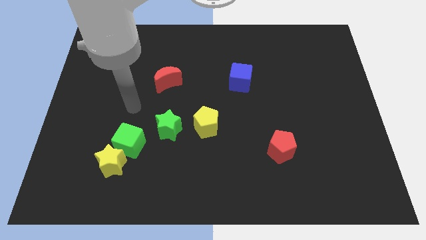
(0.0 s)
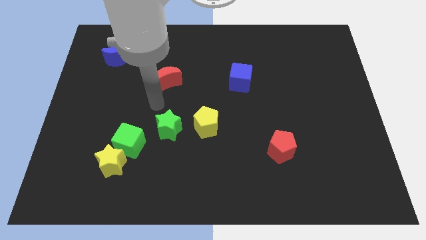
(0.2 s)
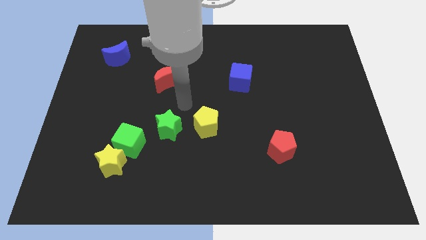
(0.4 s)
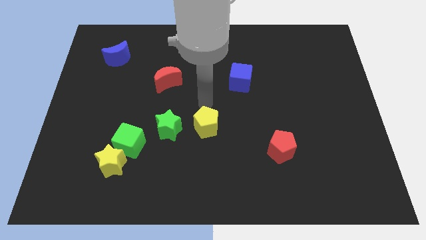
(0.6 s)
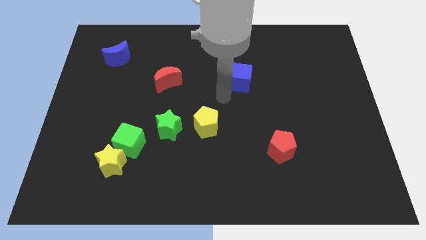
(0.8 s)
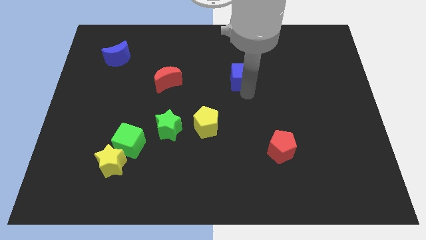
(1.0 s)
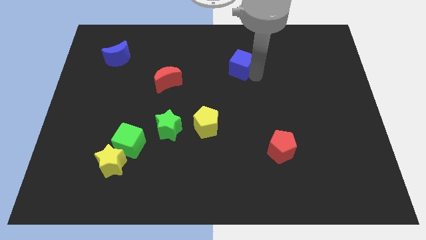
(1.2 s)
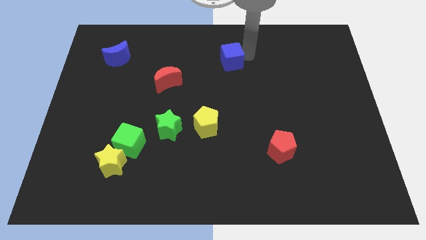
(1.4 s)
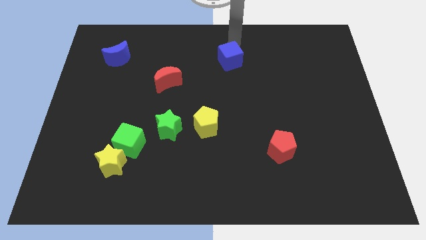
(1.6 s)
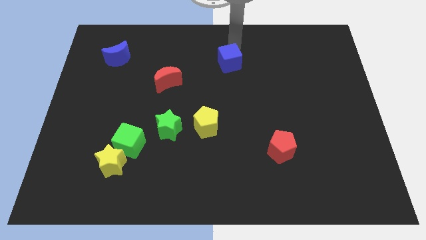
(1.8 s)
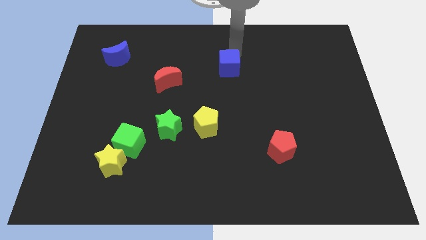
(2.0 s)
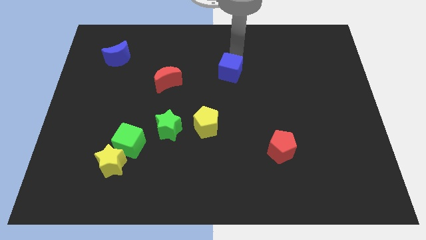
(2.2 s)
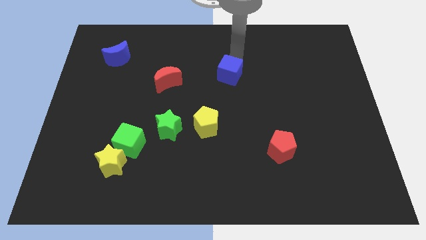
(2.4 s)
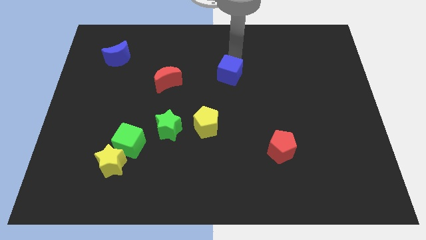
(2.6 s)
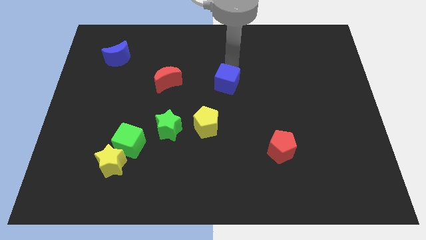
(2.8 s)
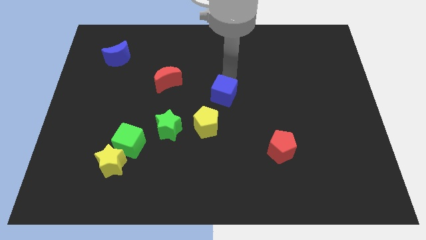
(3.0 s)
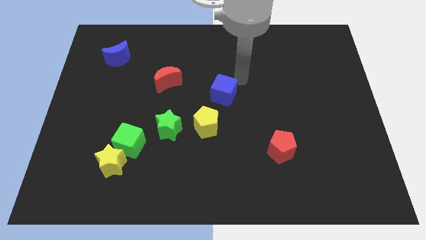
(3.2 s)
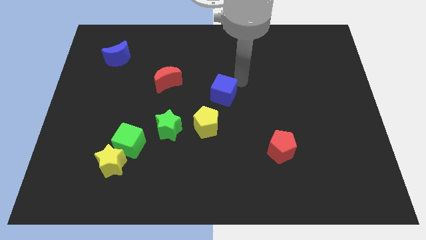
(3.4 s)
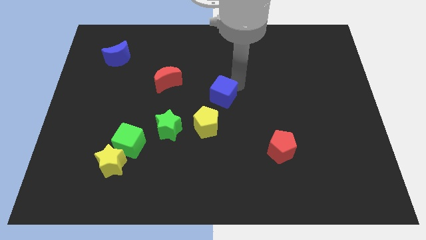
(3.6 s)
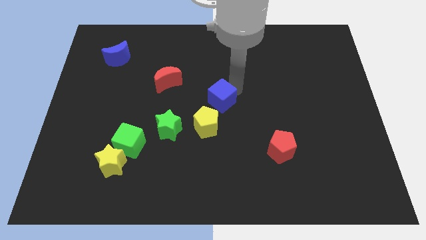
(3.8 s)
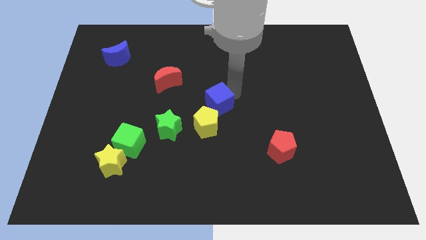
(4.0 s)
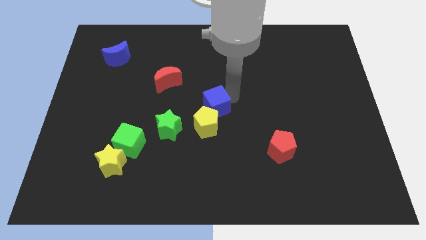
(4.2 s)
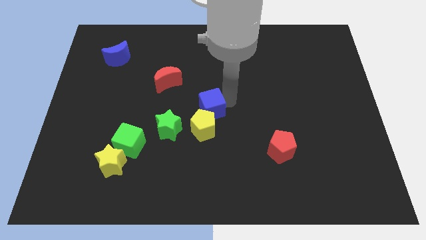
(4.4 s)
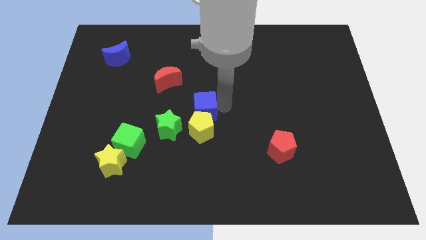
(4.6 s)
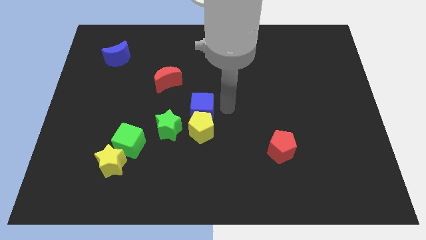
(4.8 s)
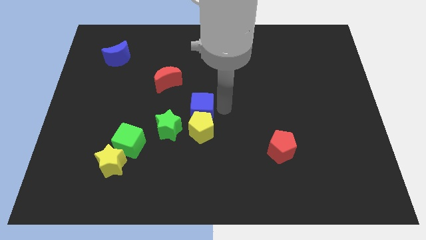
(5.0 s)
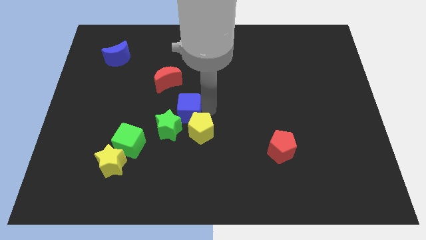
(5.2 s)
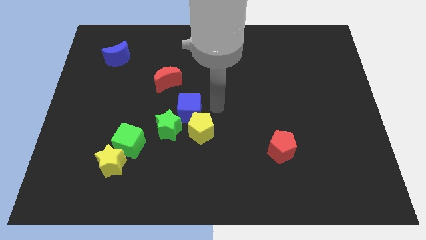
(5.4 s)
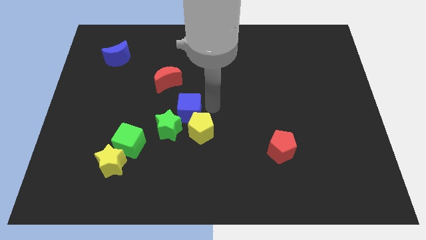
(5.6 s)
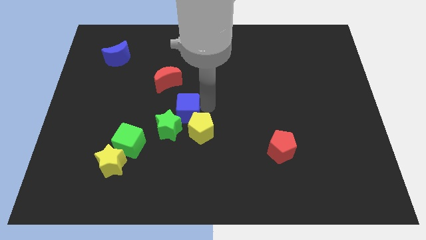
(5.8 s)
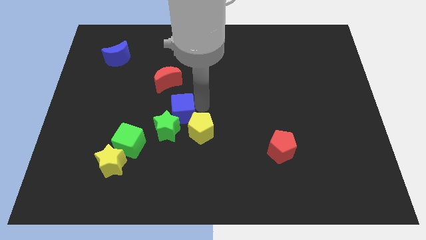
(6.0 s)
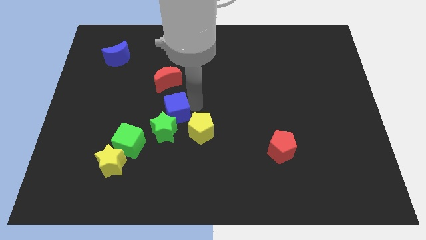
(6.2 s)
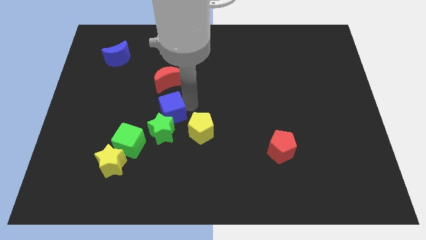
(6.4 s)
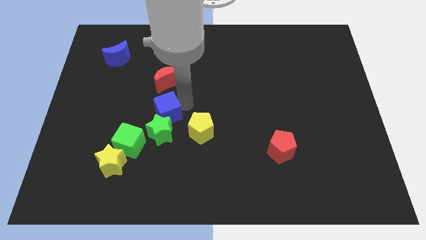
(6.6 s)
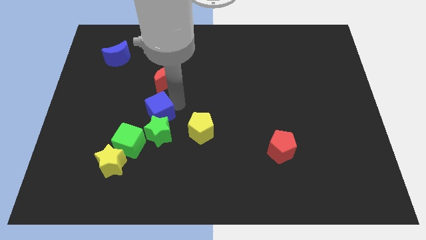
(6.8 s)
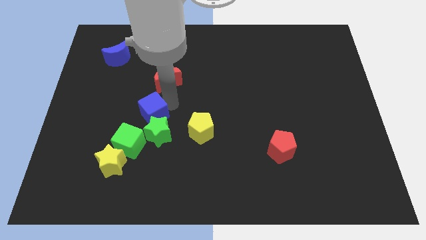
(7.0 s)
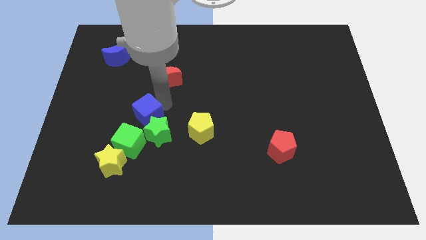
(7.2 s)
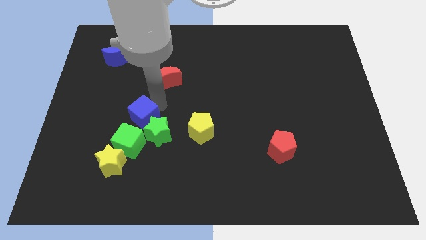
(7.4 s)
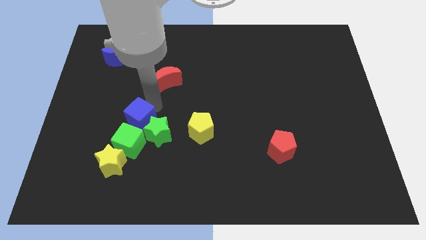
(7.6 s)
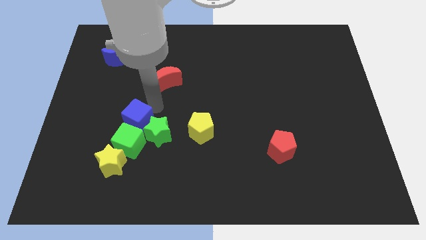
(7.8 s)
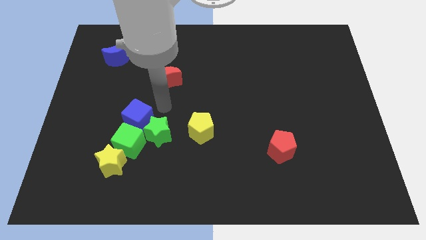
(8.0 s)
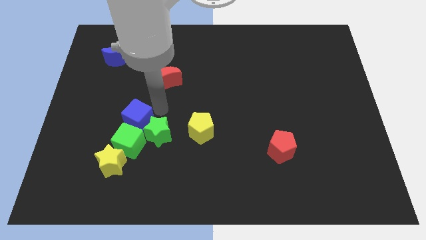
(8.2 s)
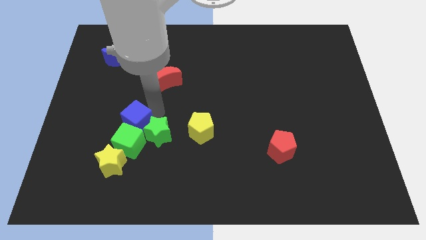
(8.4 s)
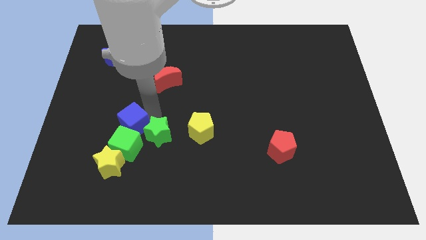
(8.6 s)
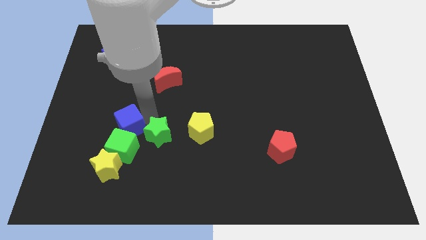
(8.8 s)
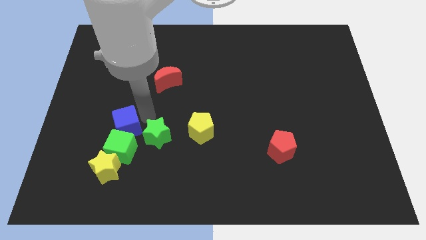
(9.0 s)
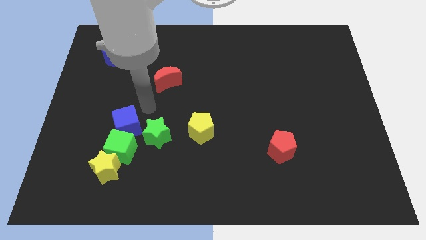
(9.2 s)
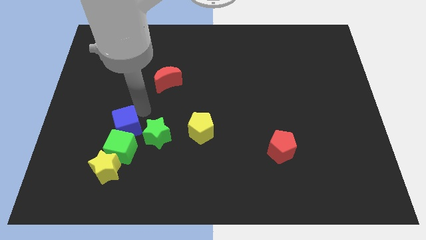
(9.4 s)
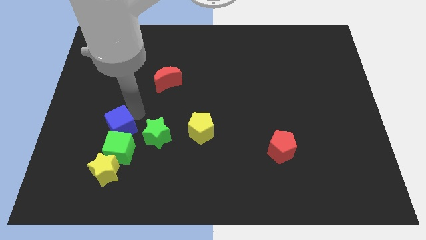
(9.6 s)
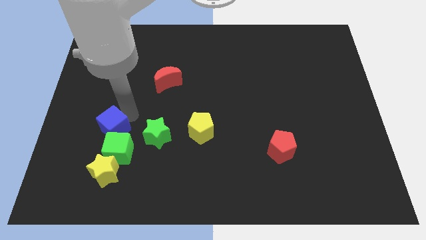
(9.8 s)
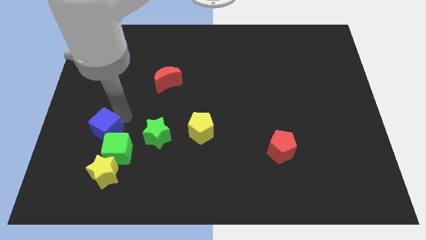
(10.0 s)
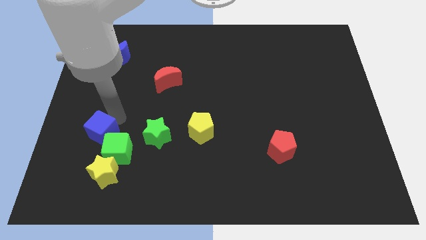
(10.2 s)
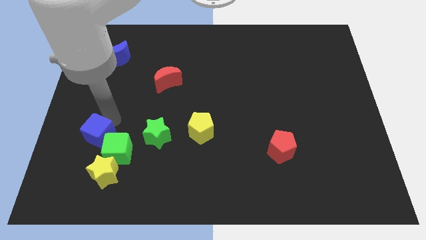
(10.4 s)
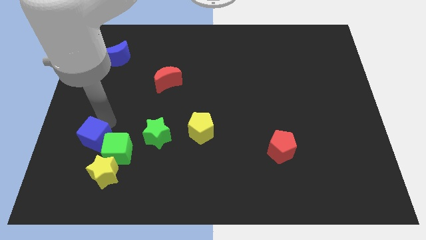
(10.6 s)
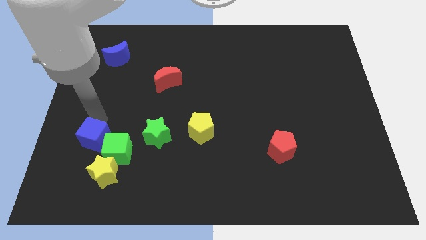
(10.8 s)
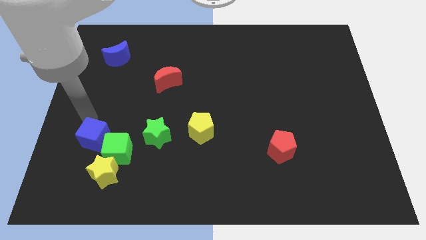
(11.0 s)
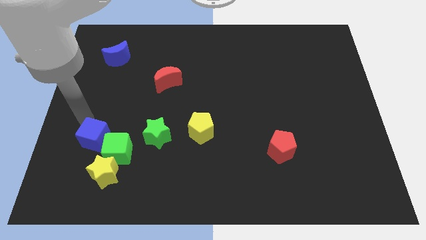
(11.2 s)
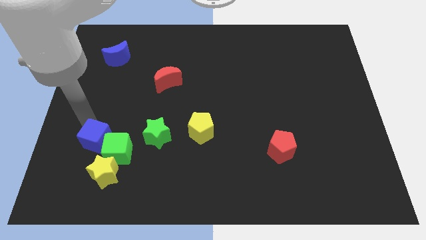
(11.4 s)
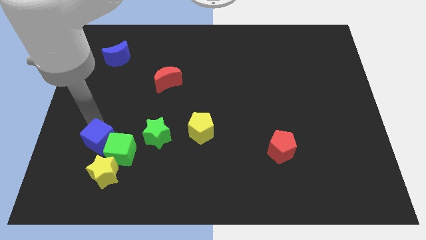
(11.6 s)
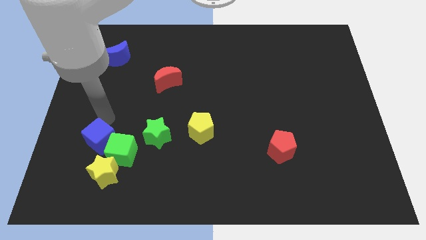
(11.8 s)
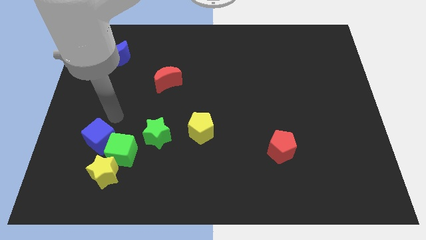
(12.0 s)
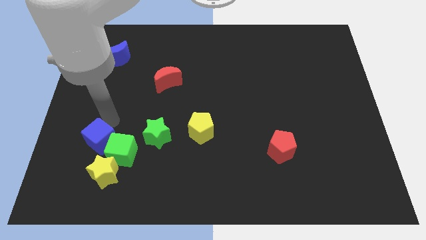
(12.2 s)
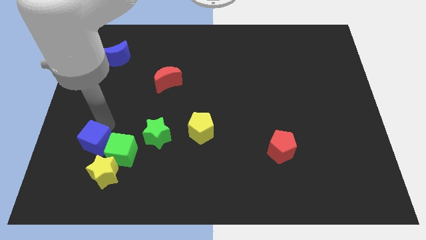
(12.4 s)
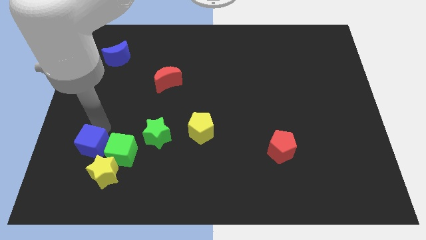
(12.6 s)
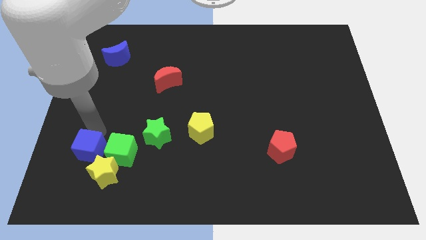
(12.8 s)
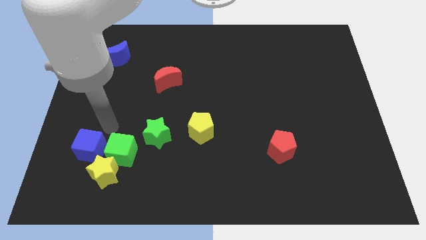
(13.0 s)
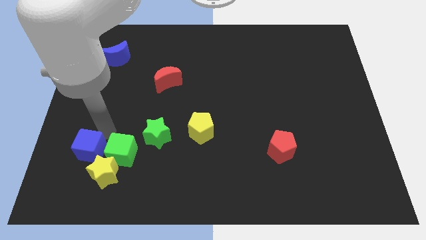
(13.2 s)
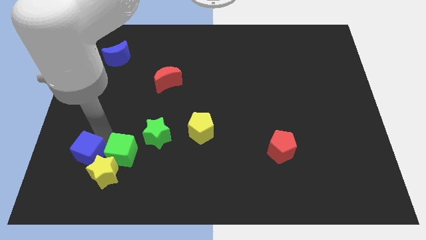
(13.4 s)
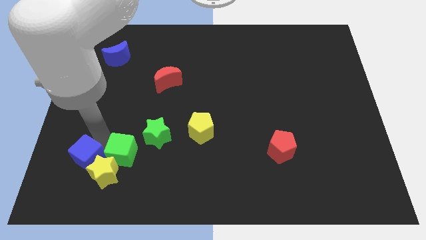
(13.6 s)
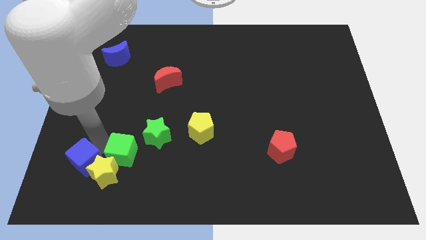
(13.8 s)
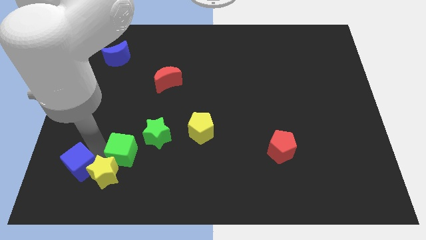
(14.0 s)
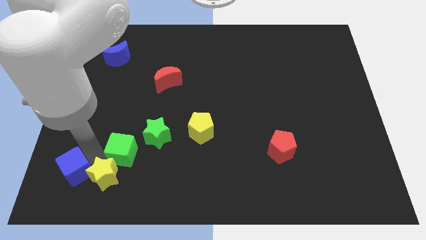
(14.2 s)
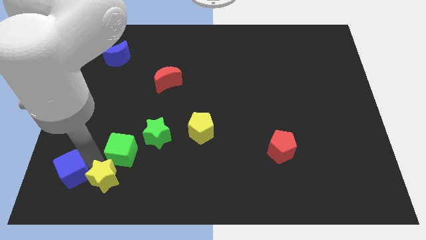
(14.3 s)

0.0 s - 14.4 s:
slide the blue cube to the bottom left of the board
